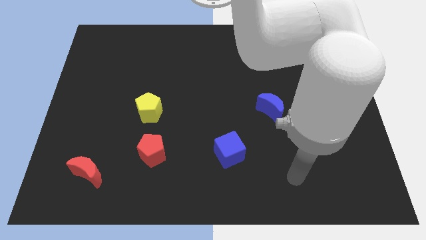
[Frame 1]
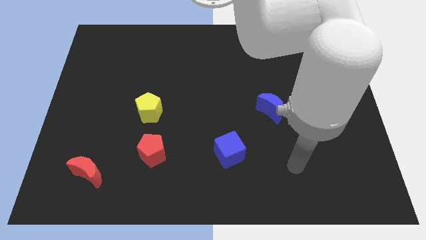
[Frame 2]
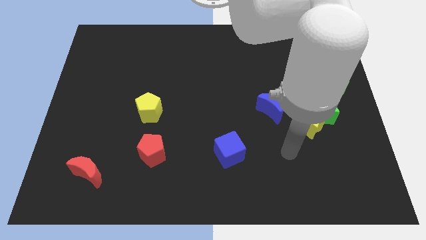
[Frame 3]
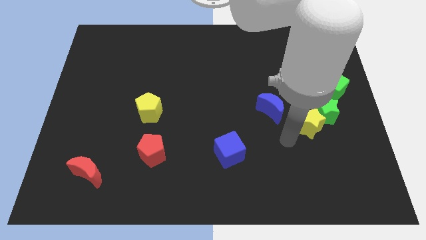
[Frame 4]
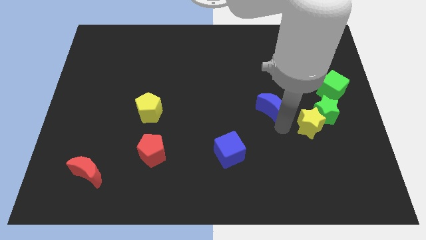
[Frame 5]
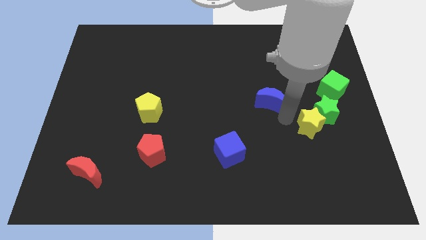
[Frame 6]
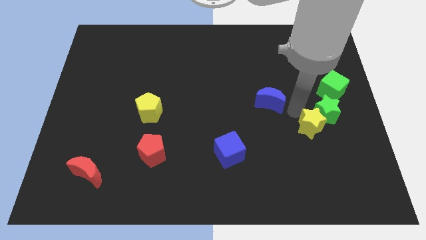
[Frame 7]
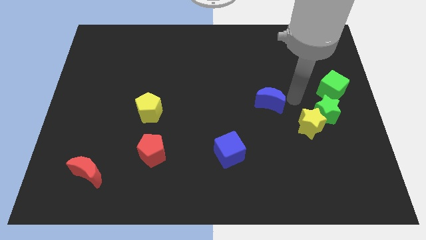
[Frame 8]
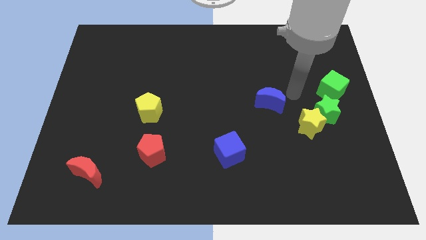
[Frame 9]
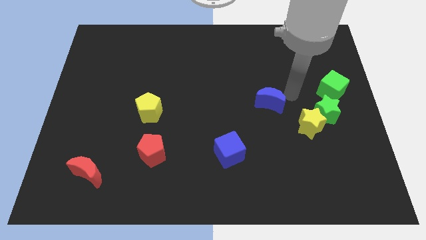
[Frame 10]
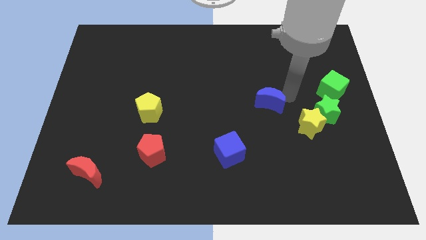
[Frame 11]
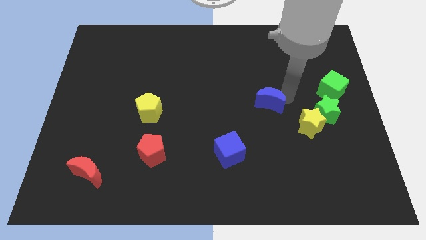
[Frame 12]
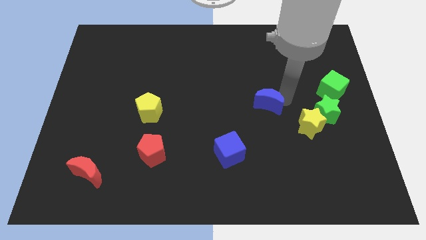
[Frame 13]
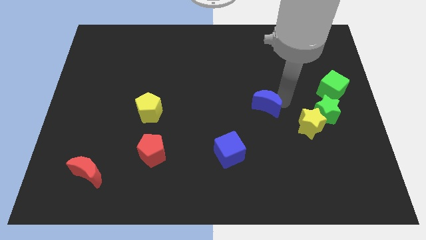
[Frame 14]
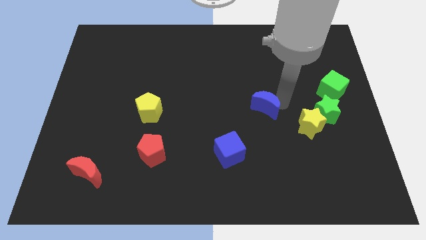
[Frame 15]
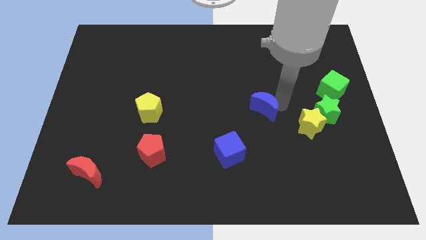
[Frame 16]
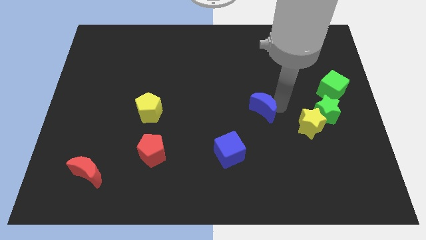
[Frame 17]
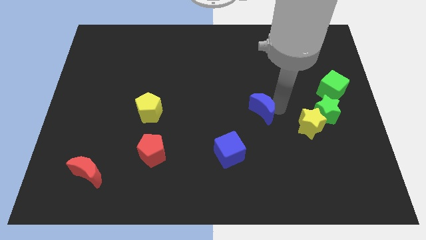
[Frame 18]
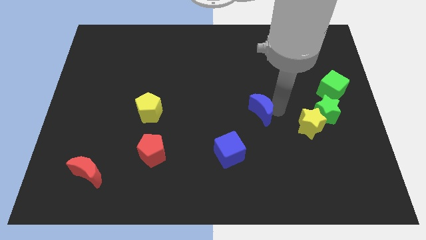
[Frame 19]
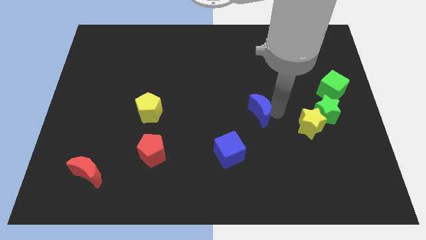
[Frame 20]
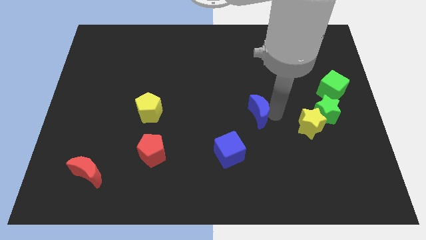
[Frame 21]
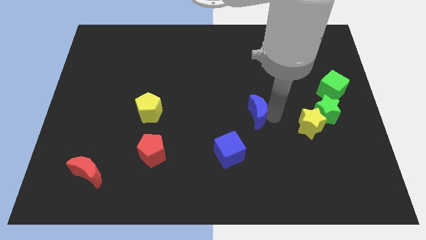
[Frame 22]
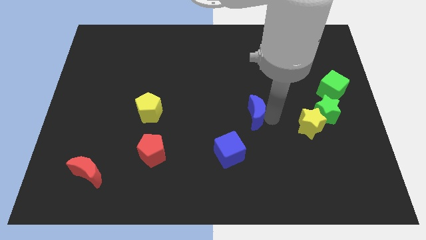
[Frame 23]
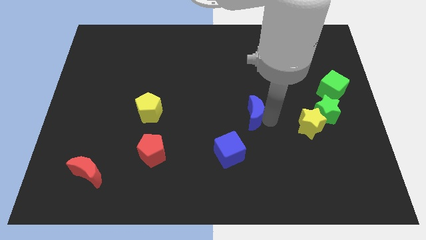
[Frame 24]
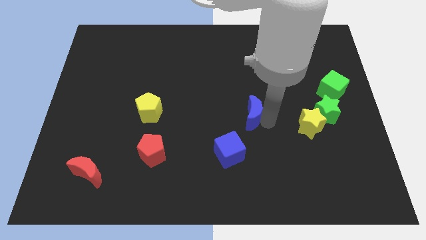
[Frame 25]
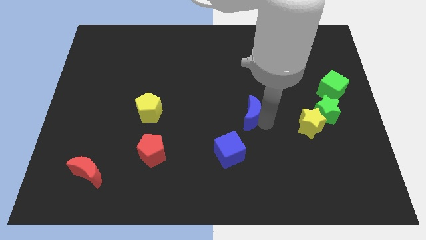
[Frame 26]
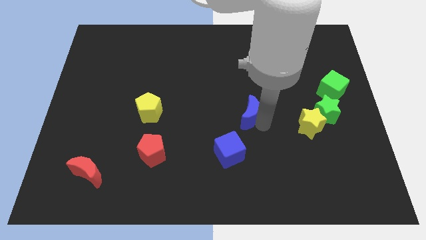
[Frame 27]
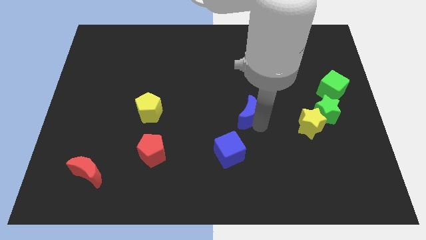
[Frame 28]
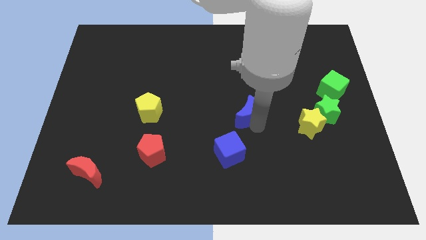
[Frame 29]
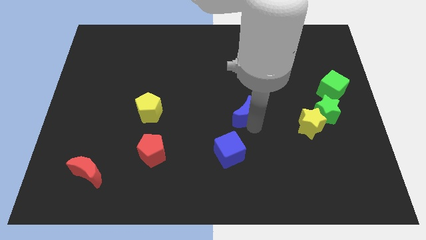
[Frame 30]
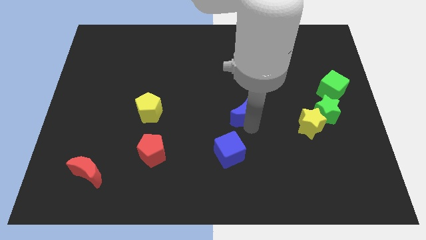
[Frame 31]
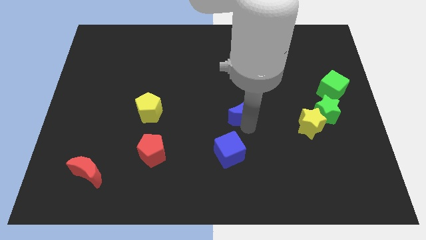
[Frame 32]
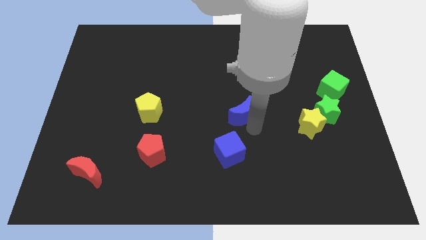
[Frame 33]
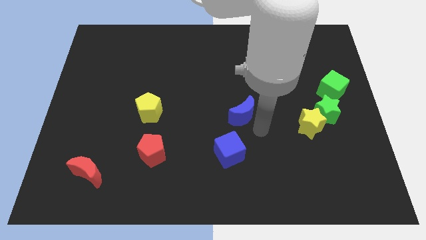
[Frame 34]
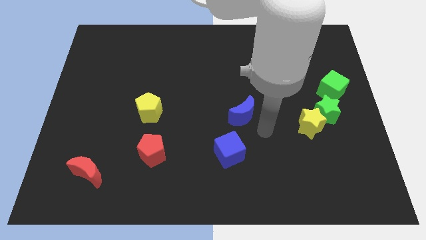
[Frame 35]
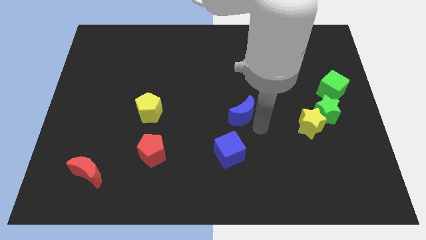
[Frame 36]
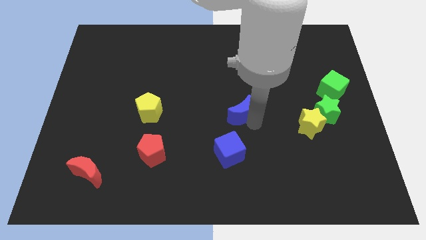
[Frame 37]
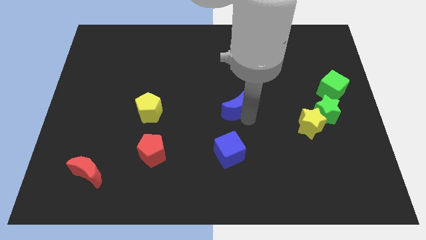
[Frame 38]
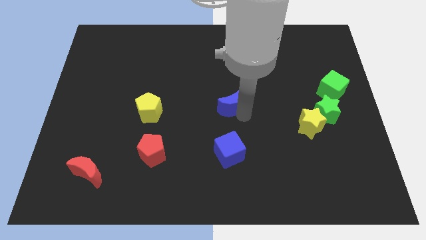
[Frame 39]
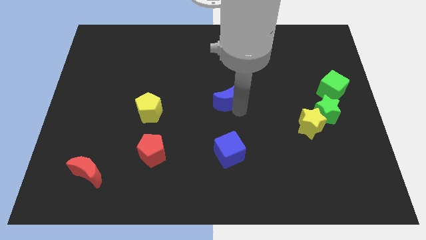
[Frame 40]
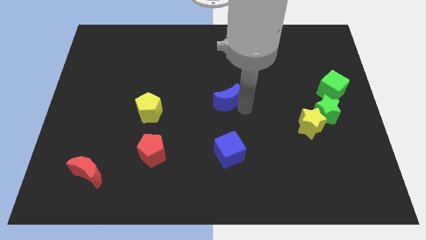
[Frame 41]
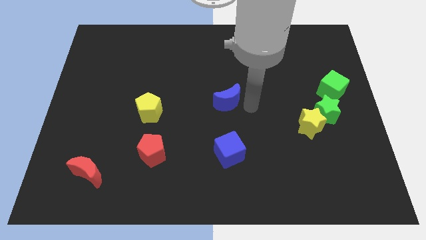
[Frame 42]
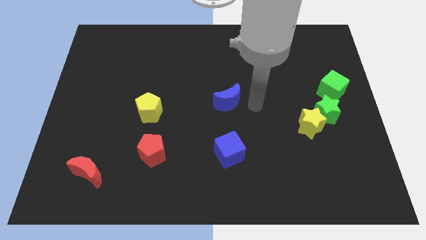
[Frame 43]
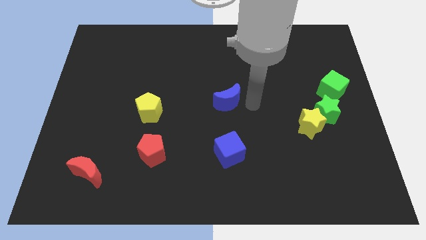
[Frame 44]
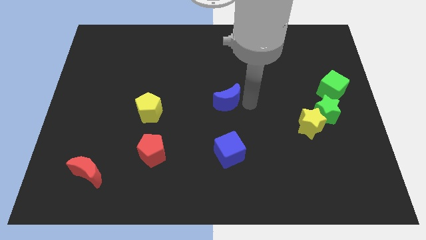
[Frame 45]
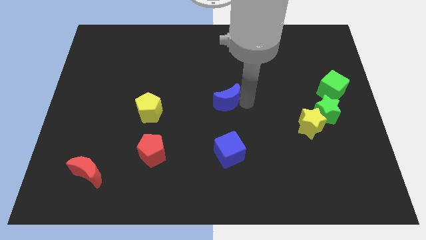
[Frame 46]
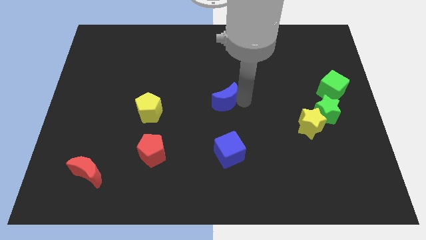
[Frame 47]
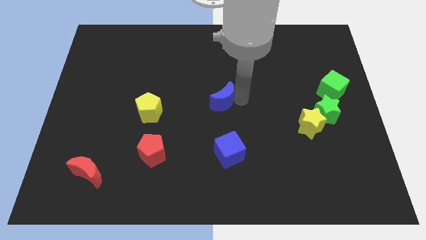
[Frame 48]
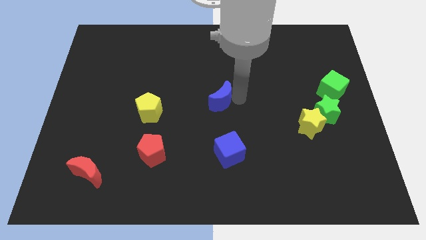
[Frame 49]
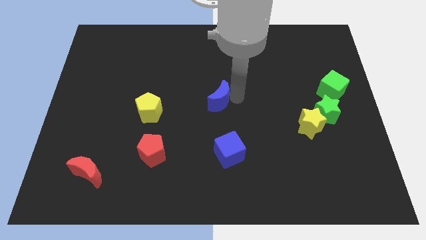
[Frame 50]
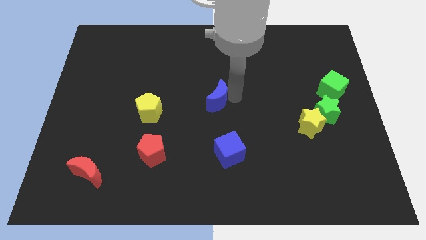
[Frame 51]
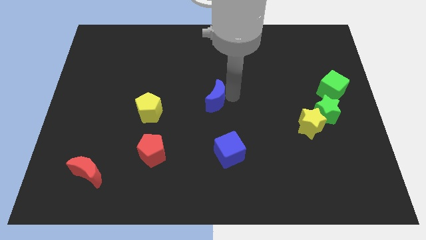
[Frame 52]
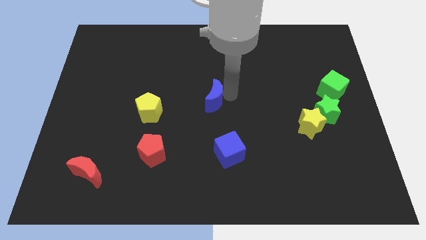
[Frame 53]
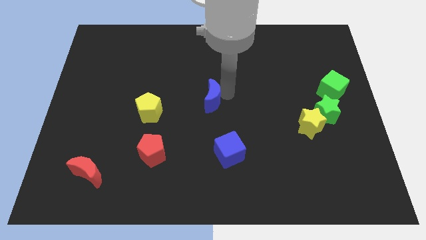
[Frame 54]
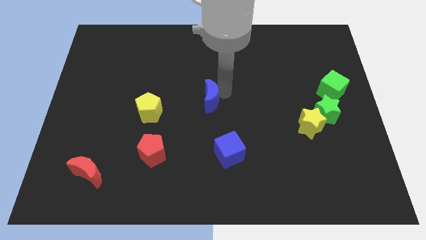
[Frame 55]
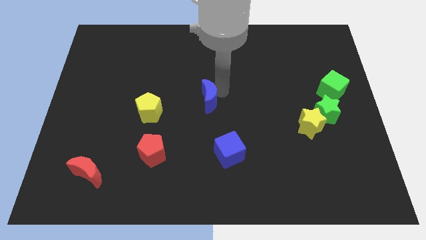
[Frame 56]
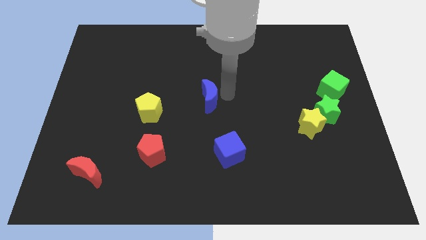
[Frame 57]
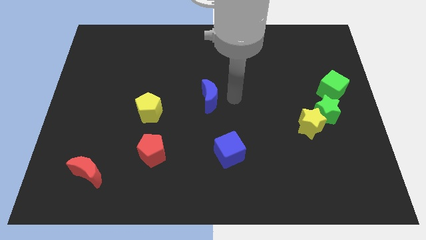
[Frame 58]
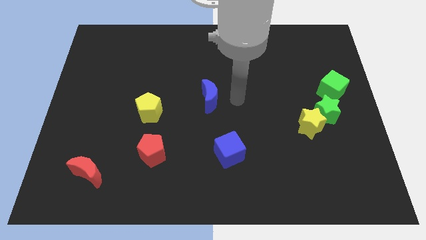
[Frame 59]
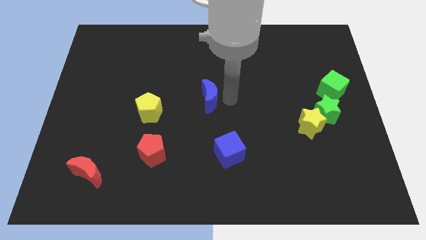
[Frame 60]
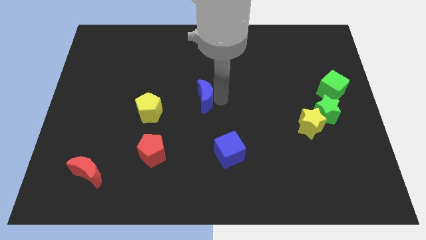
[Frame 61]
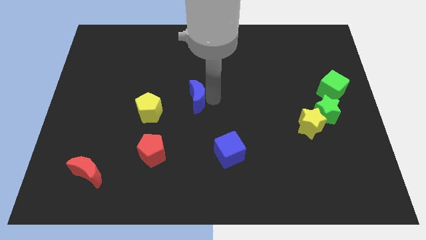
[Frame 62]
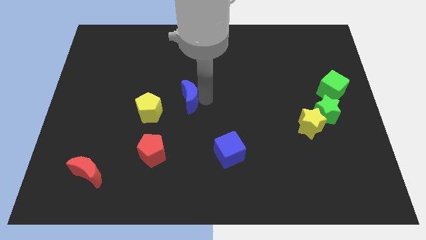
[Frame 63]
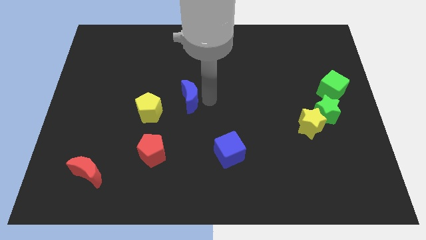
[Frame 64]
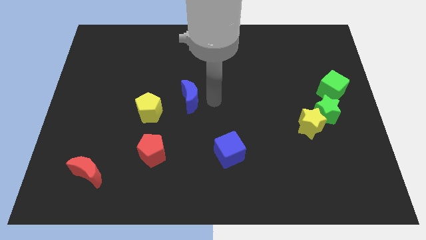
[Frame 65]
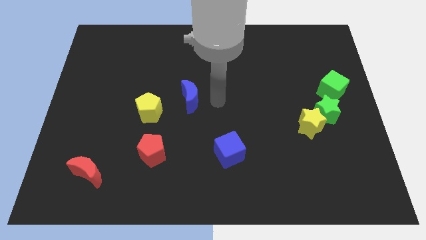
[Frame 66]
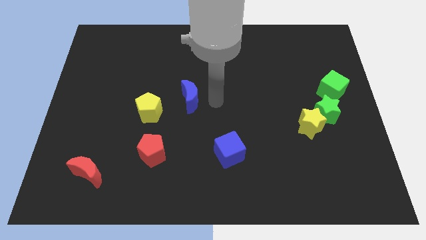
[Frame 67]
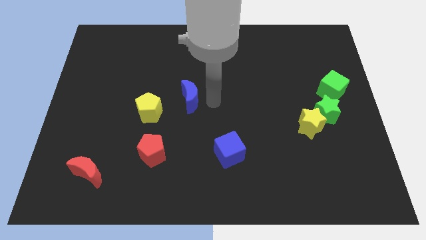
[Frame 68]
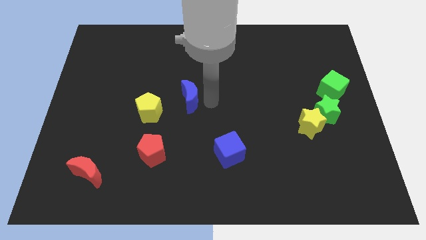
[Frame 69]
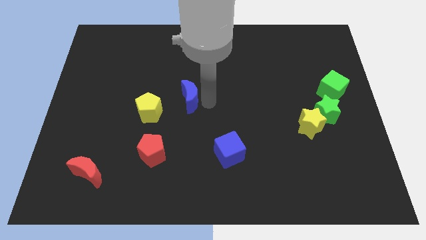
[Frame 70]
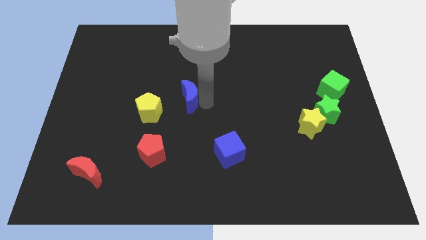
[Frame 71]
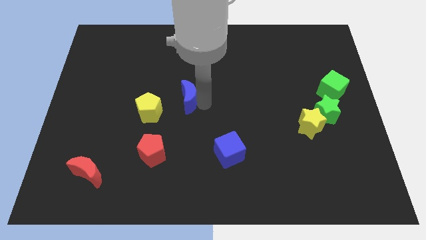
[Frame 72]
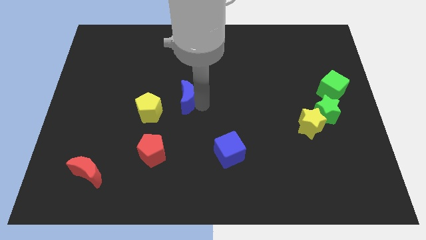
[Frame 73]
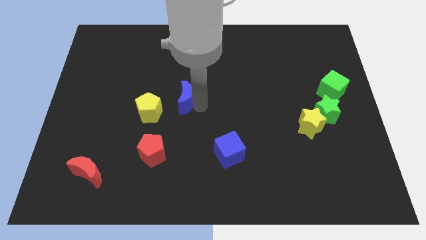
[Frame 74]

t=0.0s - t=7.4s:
slide the blue moon to the left

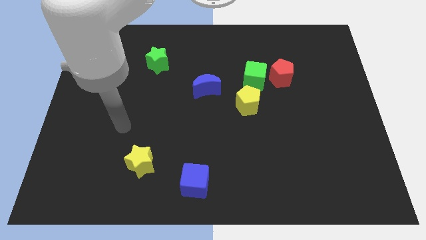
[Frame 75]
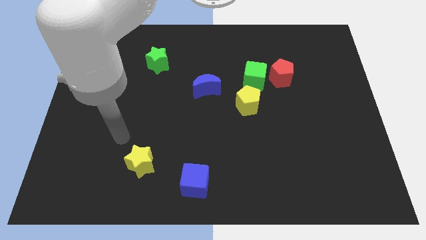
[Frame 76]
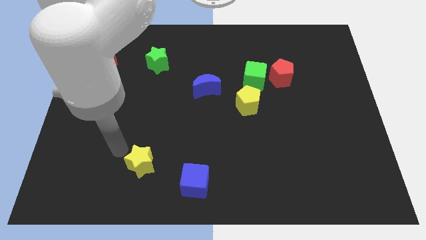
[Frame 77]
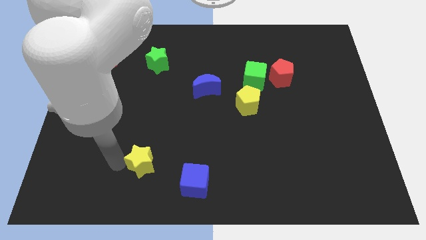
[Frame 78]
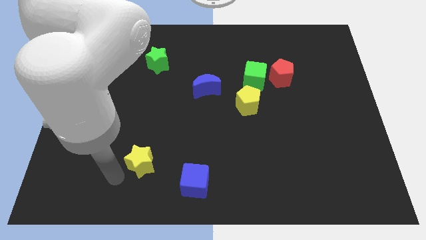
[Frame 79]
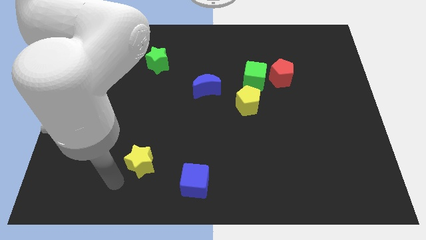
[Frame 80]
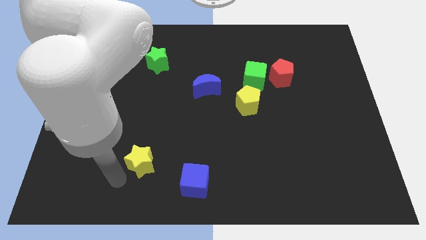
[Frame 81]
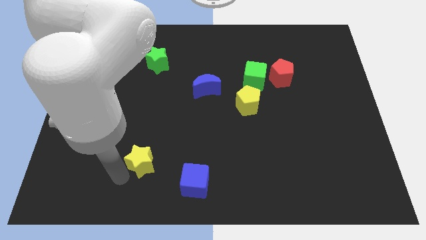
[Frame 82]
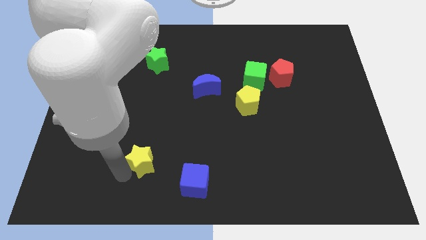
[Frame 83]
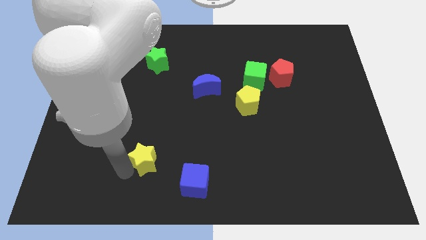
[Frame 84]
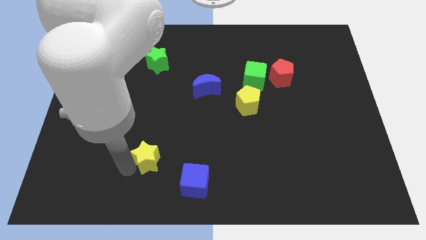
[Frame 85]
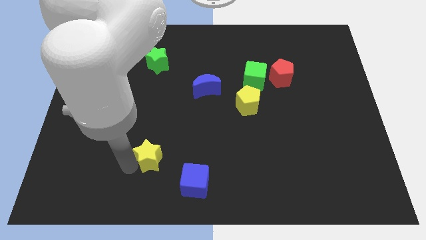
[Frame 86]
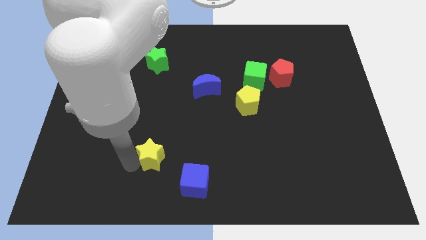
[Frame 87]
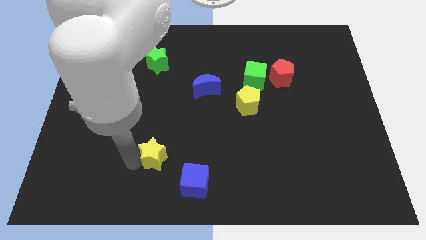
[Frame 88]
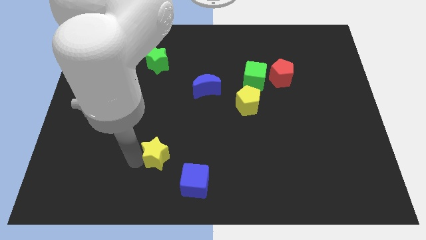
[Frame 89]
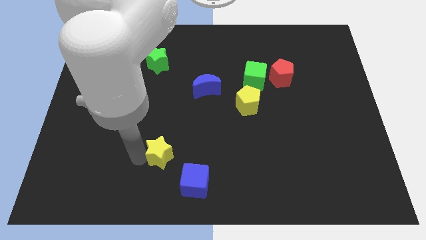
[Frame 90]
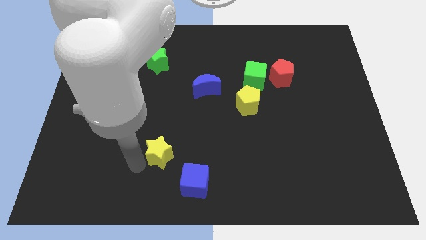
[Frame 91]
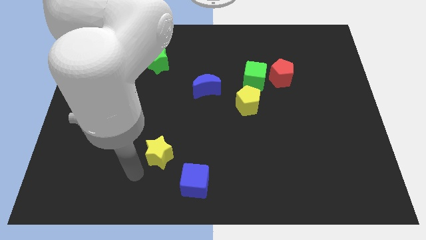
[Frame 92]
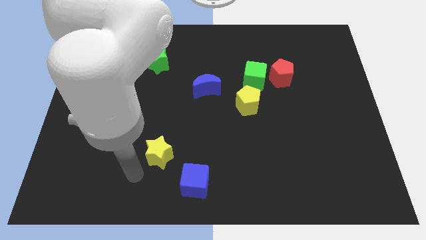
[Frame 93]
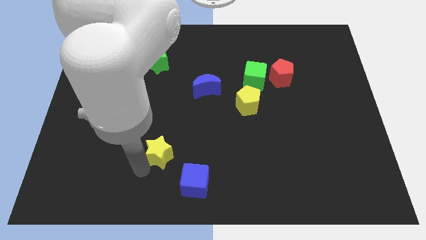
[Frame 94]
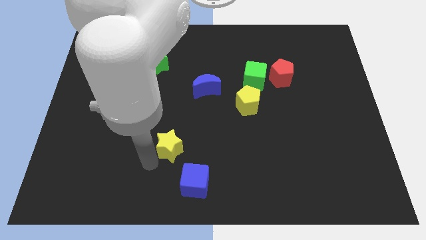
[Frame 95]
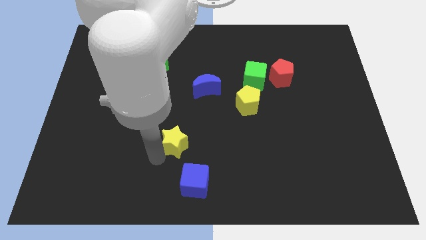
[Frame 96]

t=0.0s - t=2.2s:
push the yellow star upwards and to the right diagonally a little
